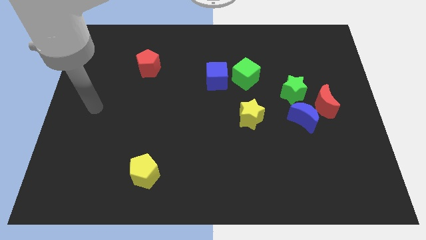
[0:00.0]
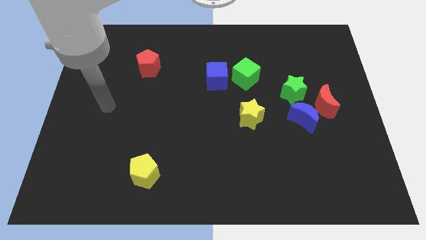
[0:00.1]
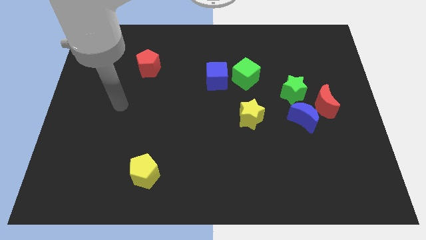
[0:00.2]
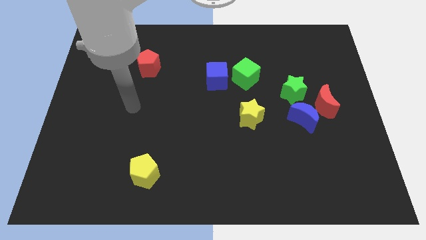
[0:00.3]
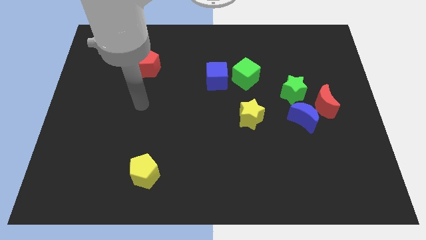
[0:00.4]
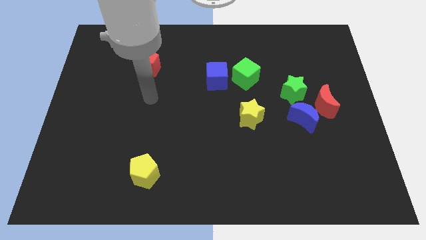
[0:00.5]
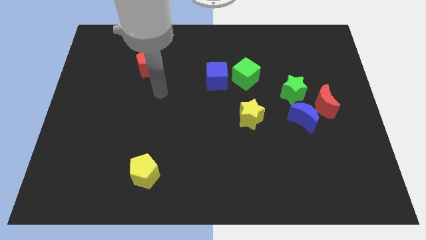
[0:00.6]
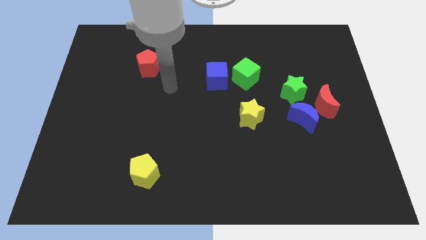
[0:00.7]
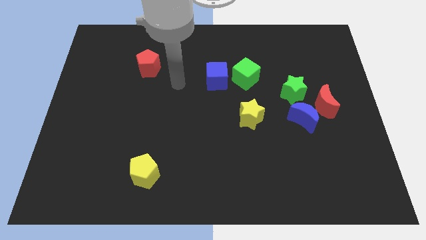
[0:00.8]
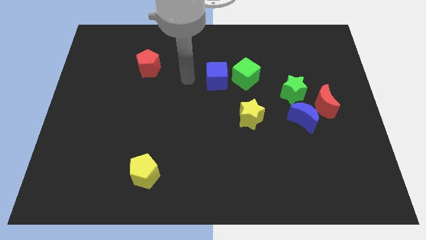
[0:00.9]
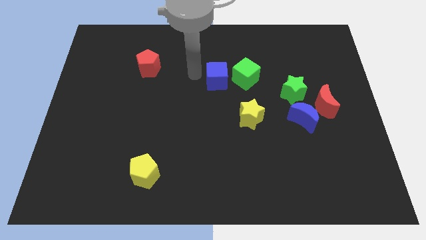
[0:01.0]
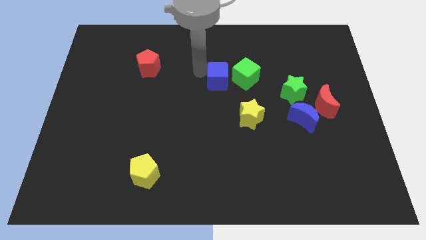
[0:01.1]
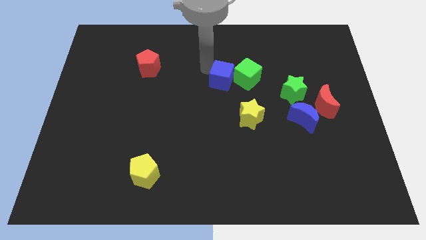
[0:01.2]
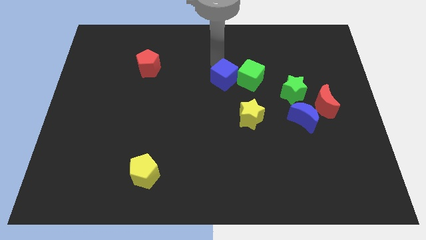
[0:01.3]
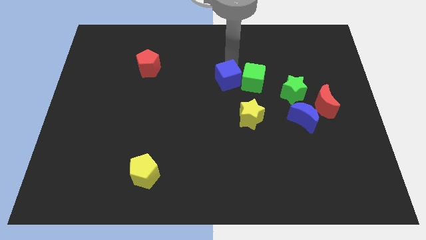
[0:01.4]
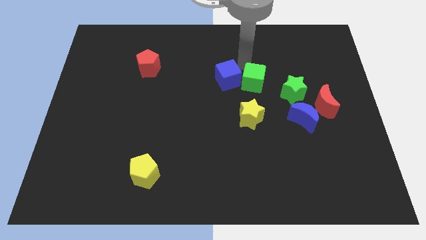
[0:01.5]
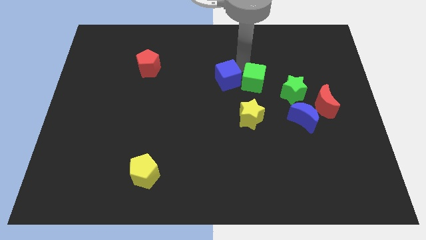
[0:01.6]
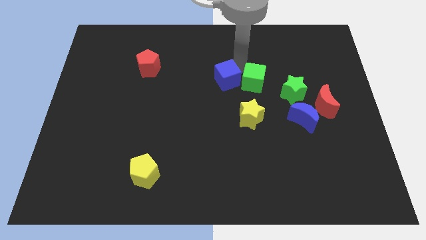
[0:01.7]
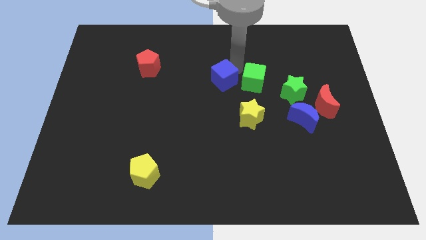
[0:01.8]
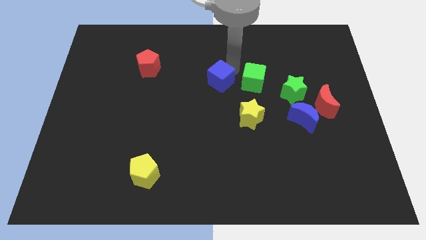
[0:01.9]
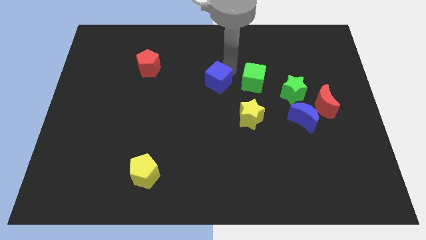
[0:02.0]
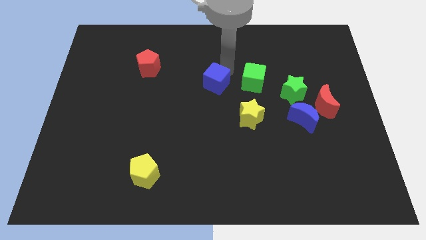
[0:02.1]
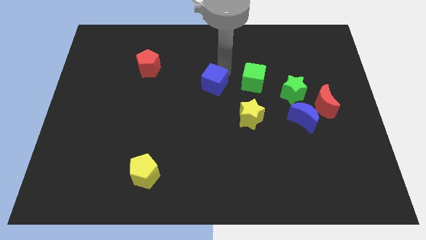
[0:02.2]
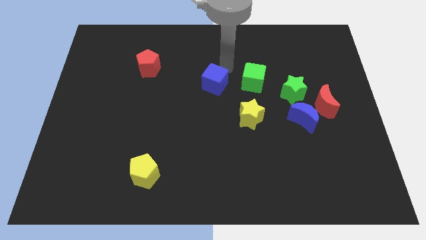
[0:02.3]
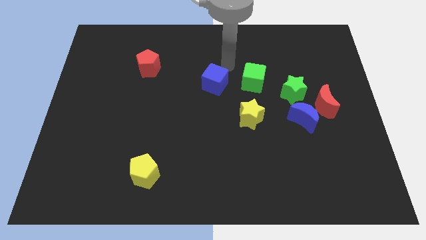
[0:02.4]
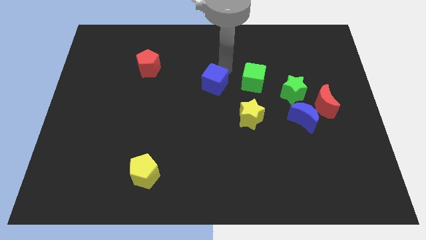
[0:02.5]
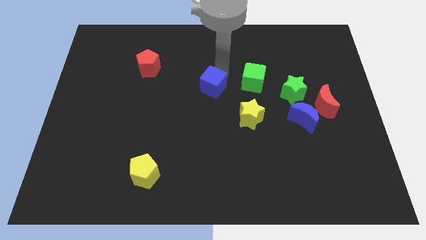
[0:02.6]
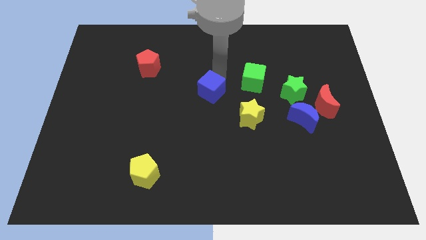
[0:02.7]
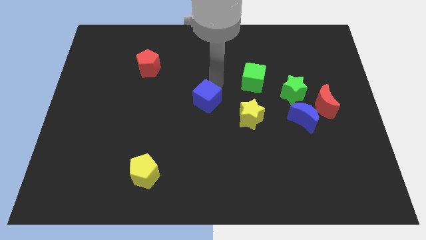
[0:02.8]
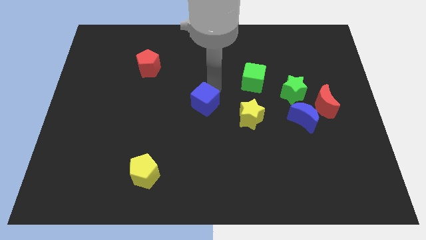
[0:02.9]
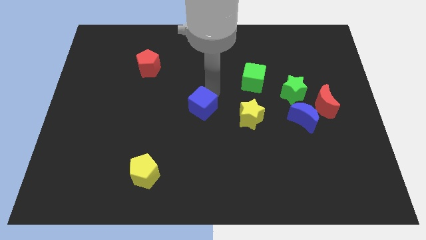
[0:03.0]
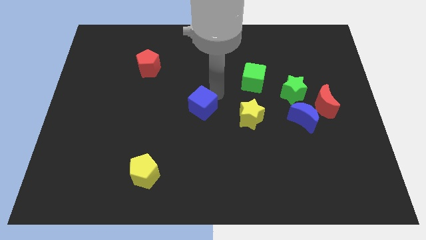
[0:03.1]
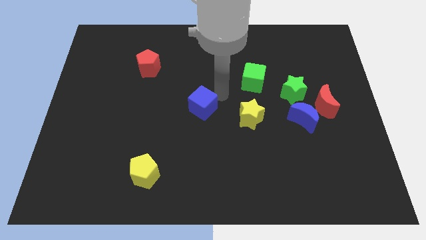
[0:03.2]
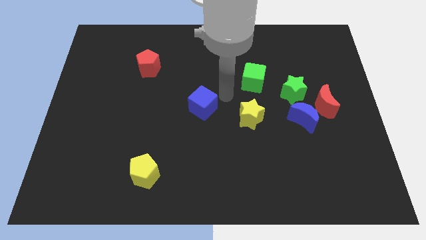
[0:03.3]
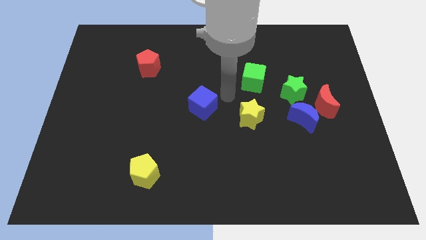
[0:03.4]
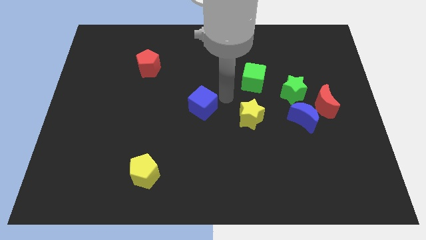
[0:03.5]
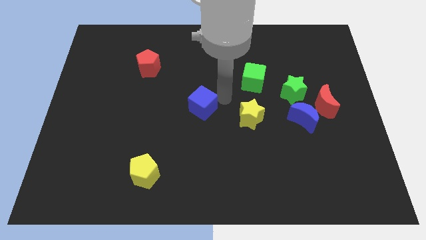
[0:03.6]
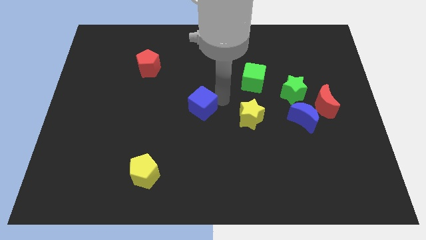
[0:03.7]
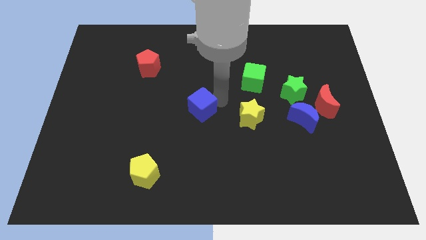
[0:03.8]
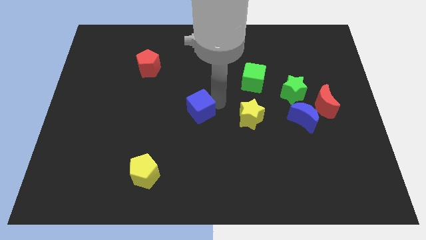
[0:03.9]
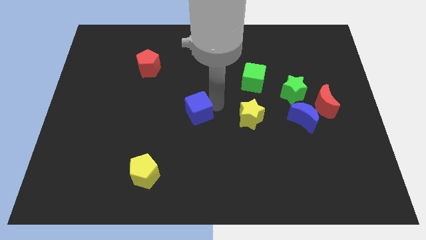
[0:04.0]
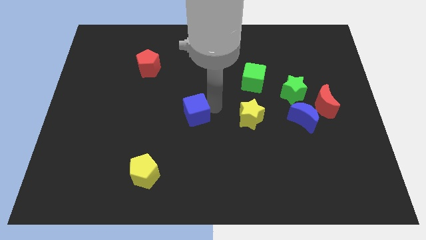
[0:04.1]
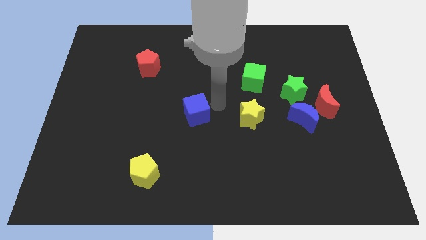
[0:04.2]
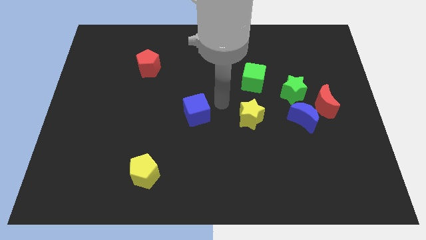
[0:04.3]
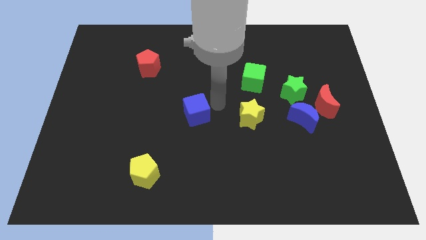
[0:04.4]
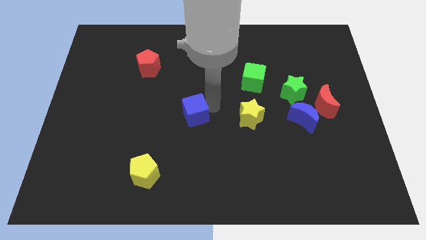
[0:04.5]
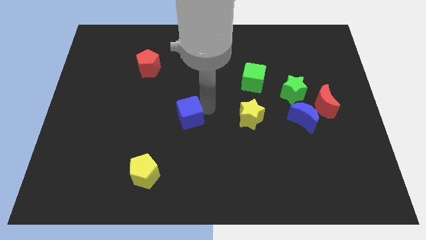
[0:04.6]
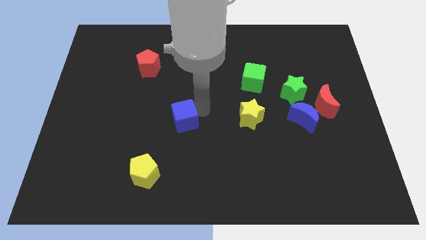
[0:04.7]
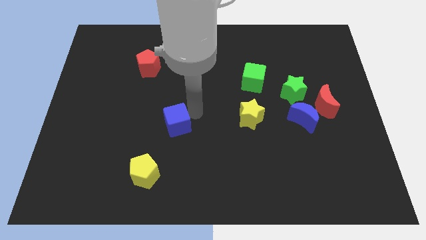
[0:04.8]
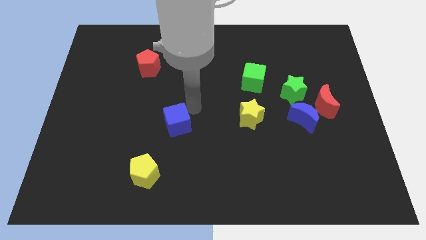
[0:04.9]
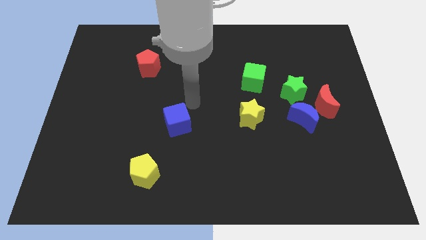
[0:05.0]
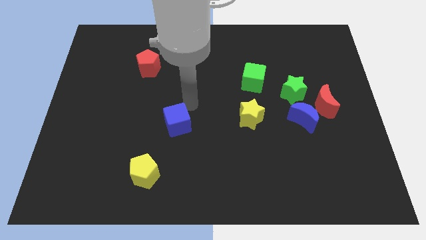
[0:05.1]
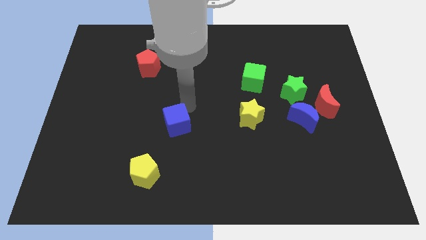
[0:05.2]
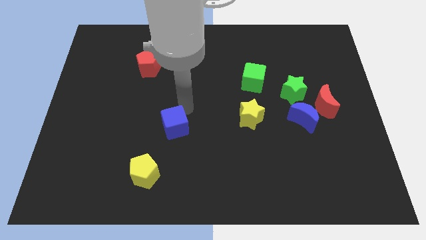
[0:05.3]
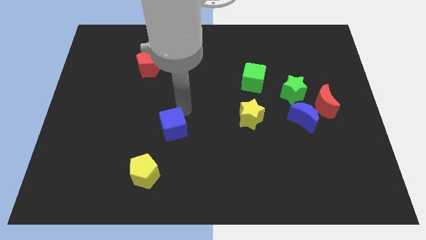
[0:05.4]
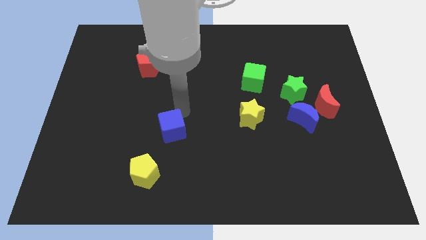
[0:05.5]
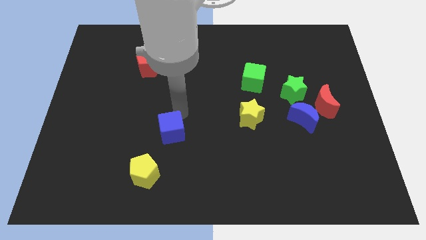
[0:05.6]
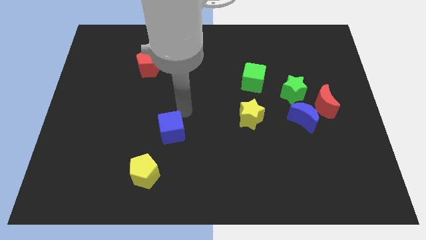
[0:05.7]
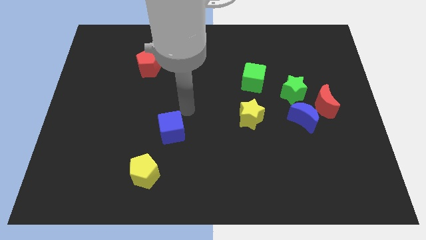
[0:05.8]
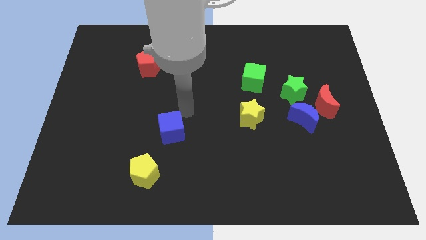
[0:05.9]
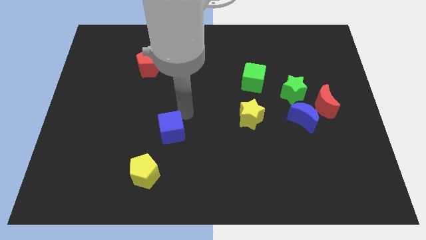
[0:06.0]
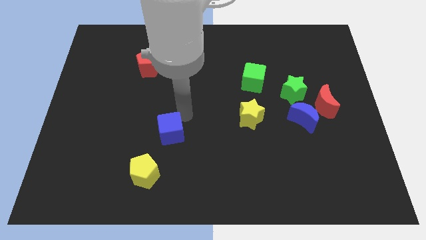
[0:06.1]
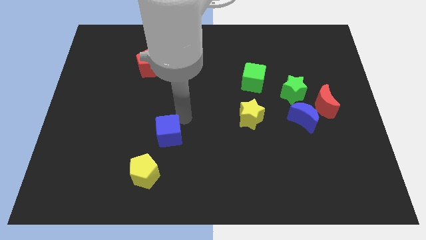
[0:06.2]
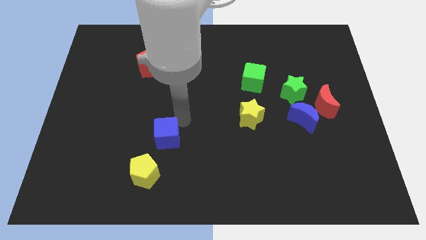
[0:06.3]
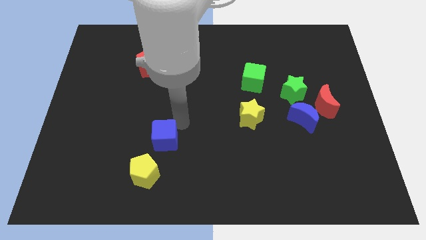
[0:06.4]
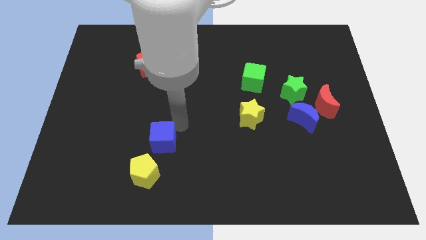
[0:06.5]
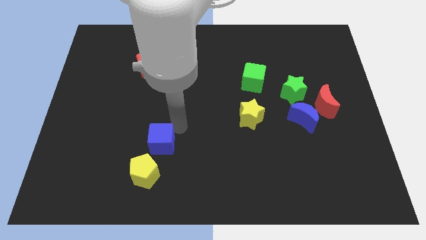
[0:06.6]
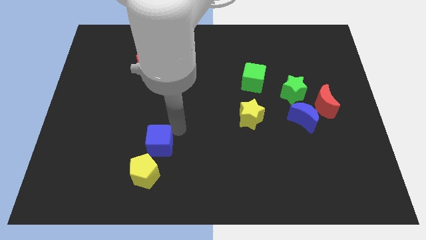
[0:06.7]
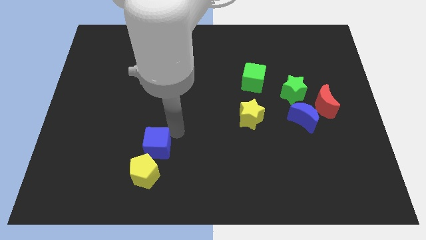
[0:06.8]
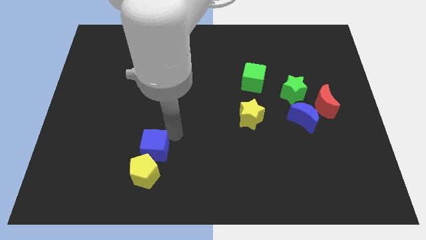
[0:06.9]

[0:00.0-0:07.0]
slide the blue cube to the yellow pentagon
